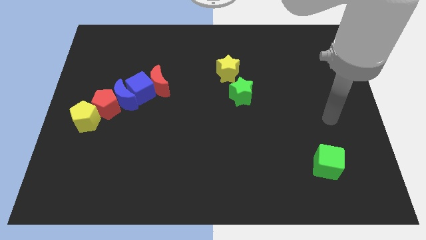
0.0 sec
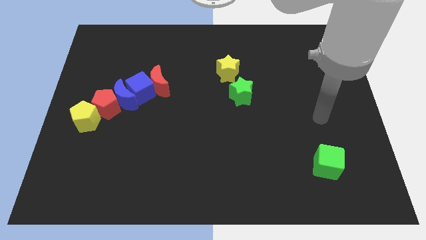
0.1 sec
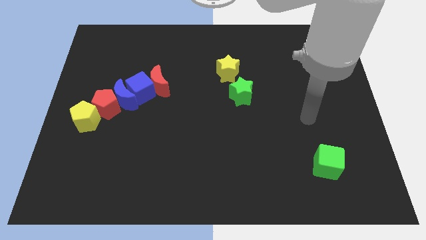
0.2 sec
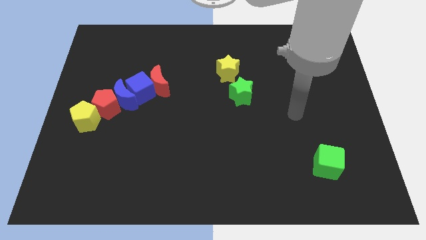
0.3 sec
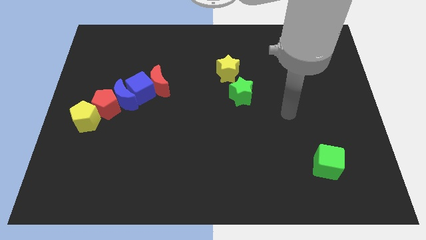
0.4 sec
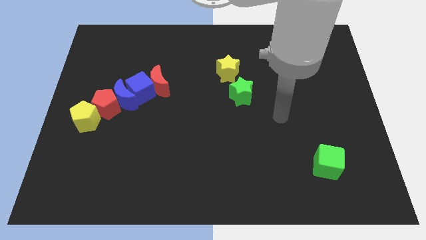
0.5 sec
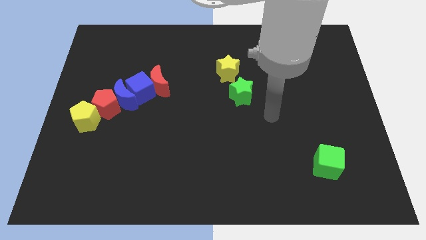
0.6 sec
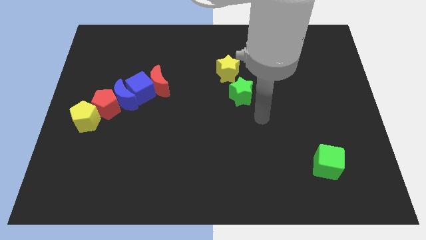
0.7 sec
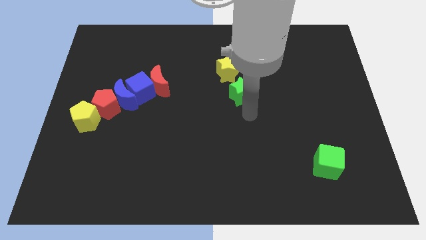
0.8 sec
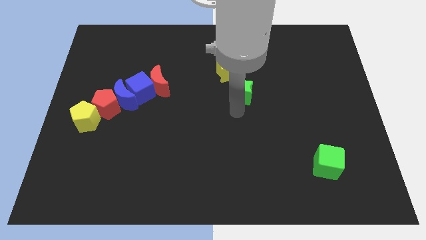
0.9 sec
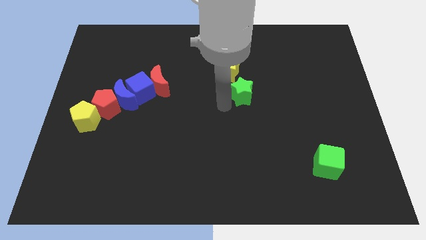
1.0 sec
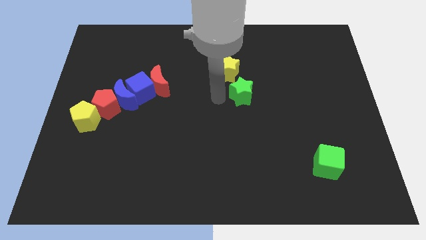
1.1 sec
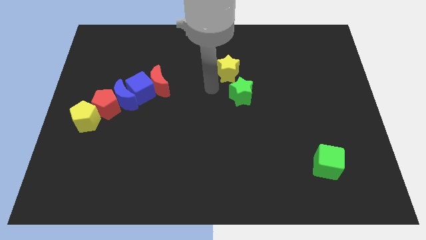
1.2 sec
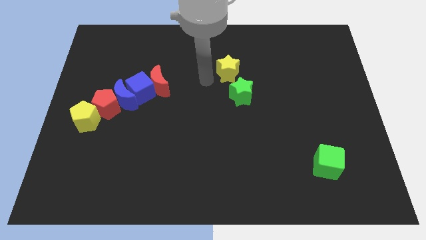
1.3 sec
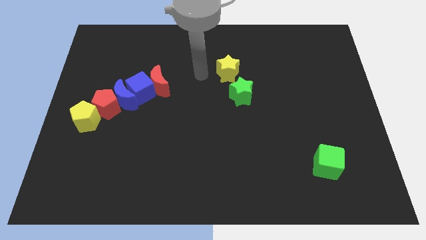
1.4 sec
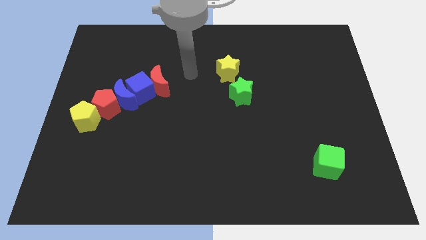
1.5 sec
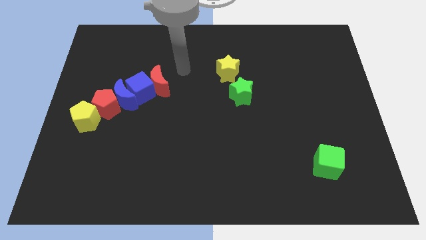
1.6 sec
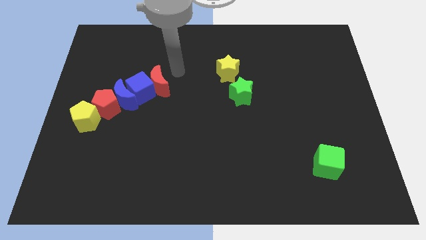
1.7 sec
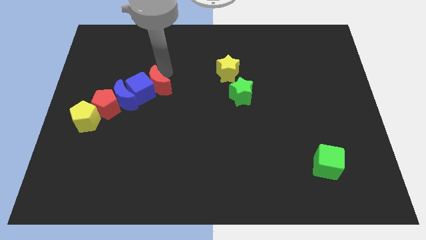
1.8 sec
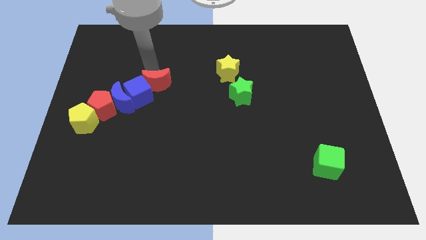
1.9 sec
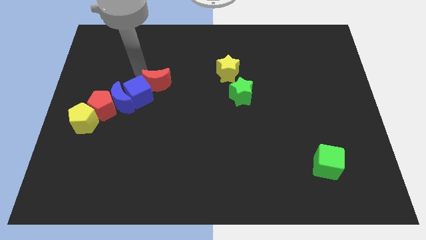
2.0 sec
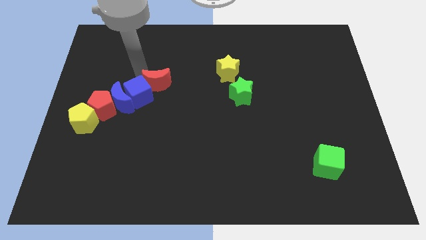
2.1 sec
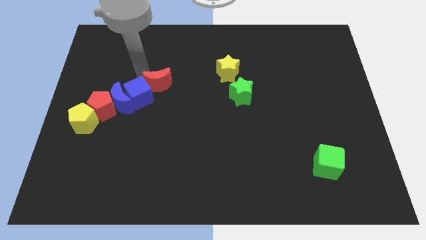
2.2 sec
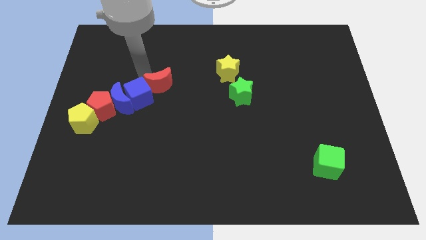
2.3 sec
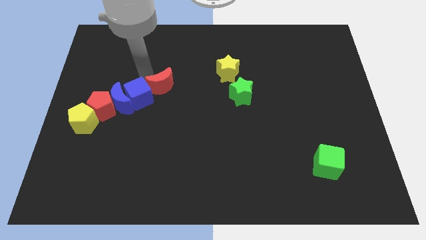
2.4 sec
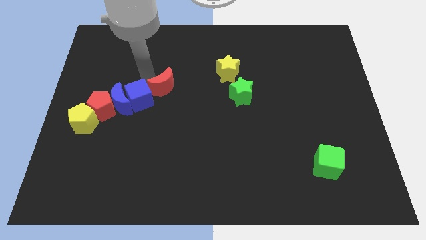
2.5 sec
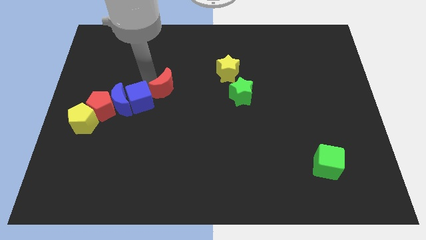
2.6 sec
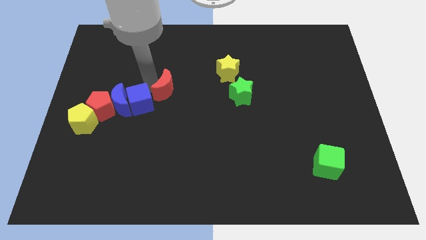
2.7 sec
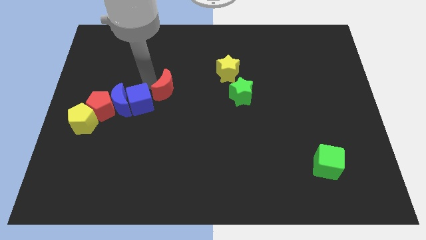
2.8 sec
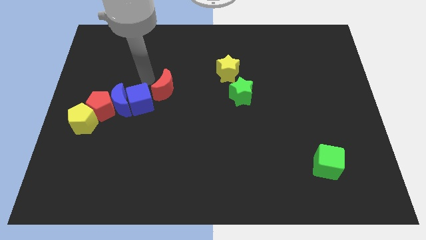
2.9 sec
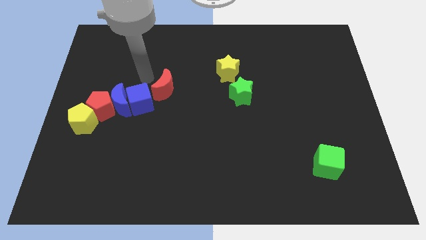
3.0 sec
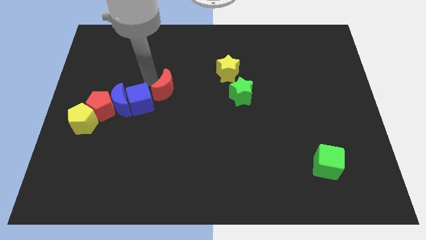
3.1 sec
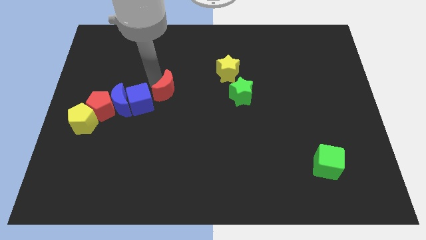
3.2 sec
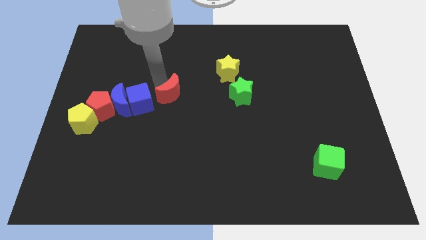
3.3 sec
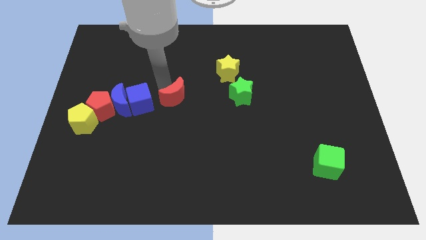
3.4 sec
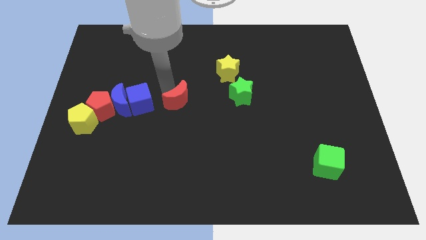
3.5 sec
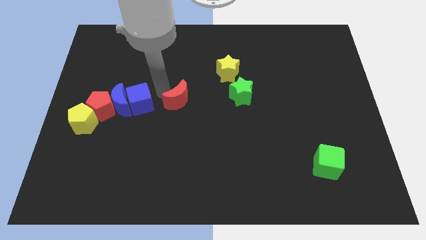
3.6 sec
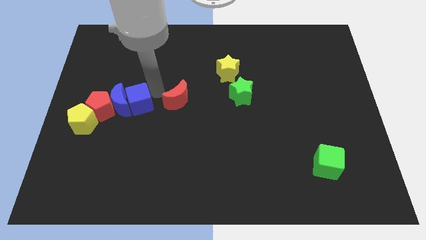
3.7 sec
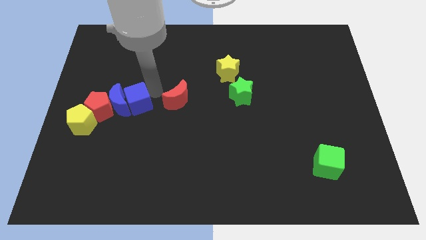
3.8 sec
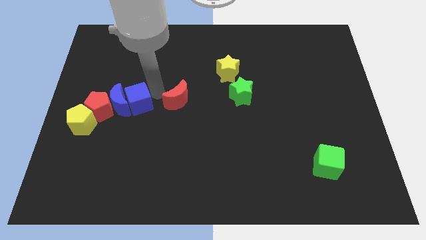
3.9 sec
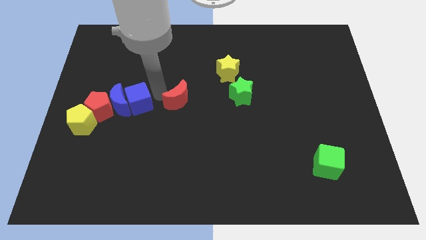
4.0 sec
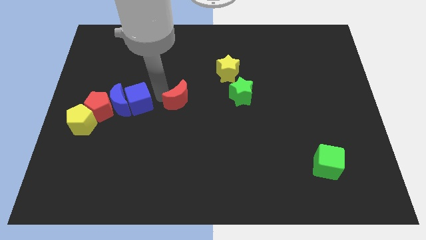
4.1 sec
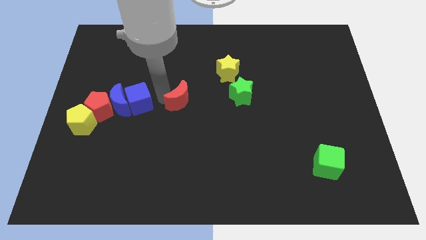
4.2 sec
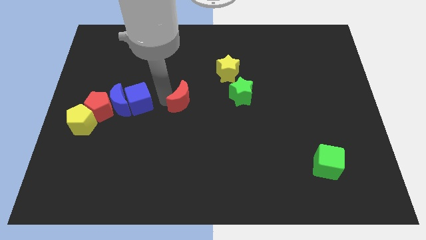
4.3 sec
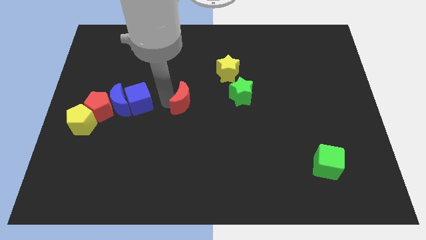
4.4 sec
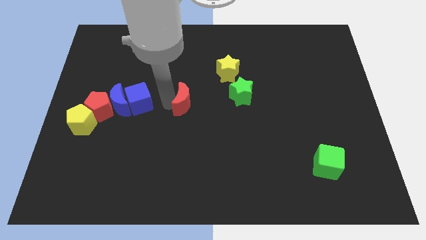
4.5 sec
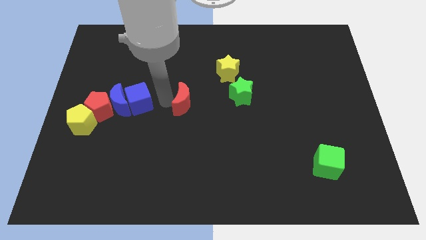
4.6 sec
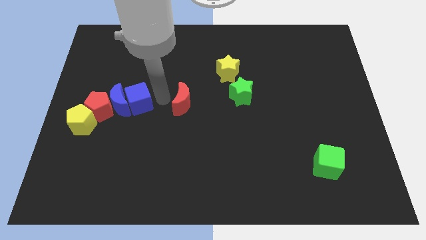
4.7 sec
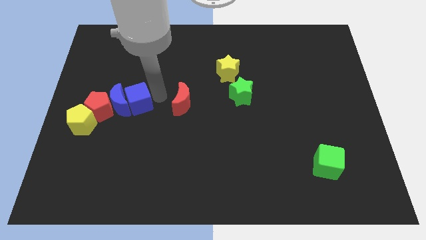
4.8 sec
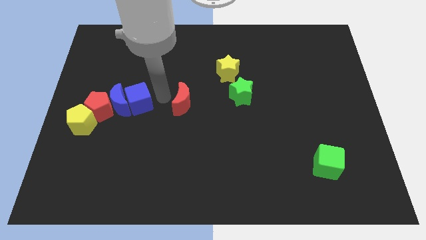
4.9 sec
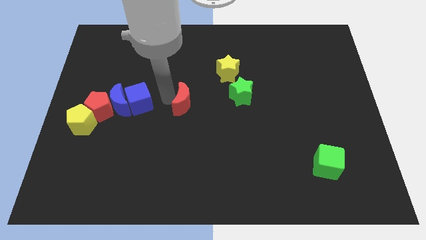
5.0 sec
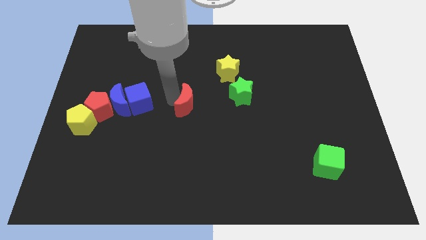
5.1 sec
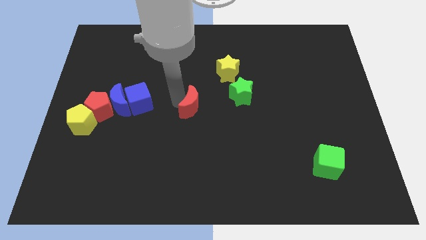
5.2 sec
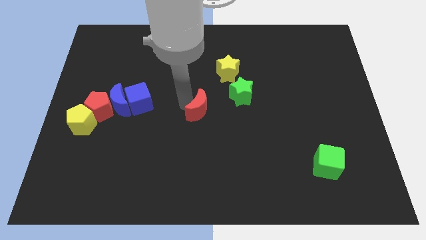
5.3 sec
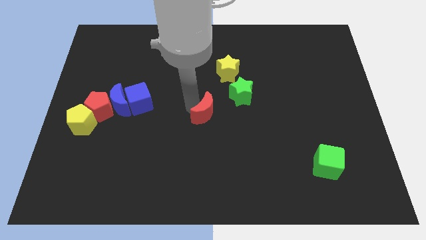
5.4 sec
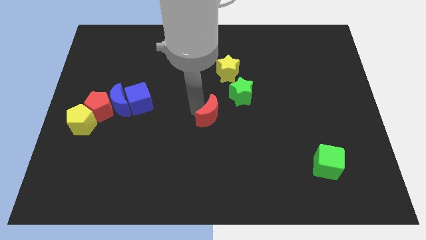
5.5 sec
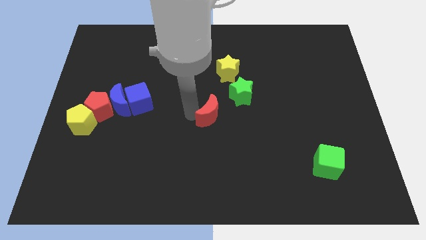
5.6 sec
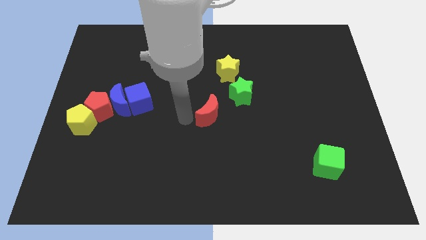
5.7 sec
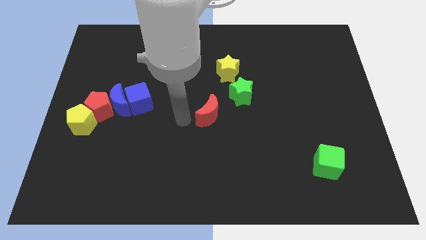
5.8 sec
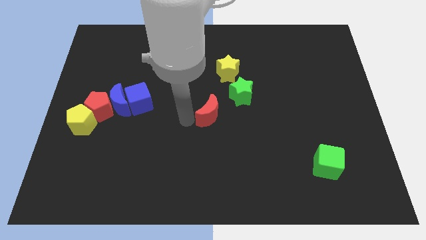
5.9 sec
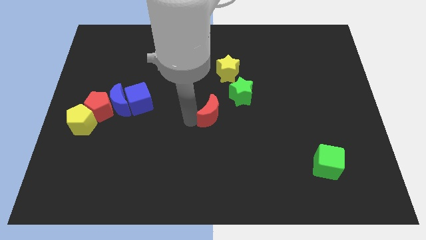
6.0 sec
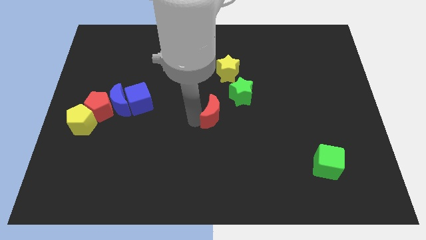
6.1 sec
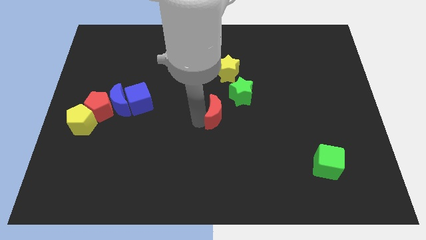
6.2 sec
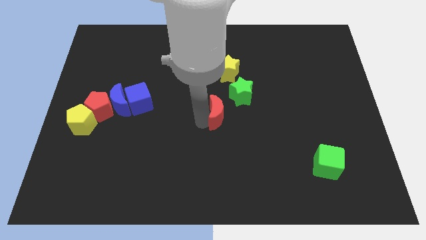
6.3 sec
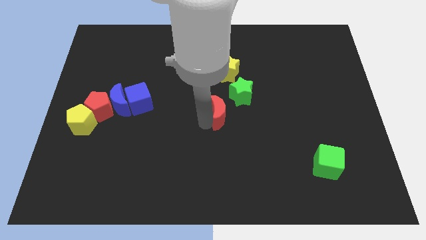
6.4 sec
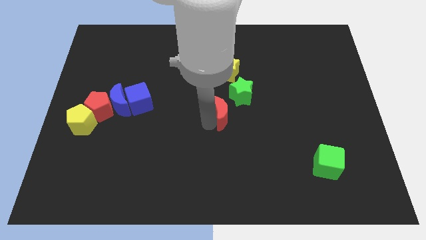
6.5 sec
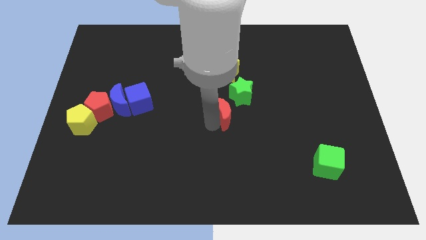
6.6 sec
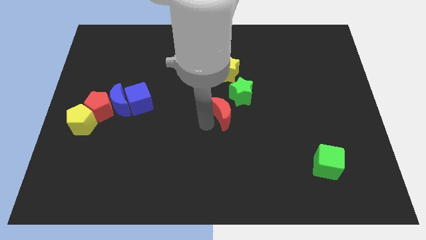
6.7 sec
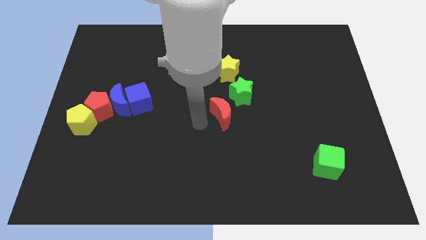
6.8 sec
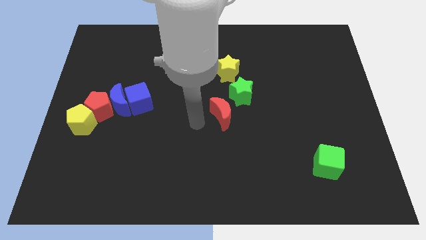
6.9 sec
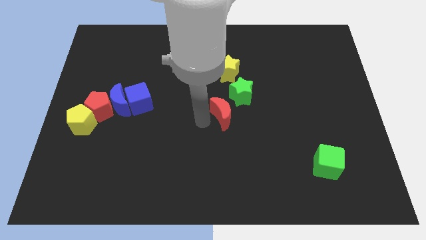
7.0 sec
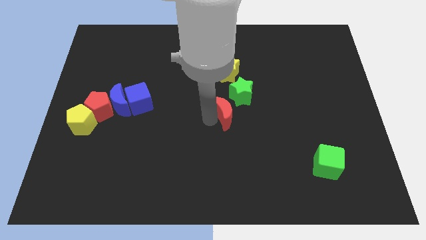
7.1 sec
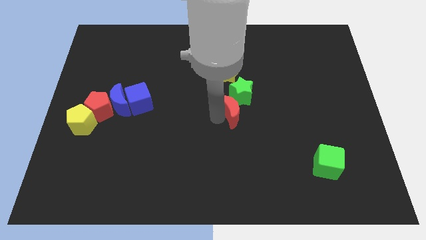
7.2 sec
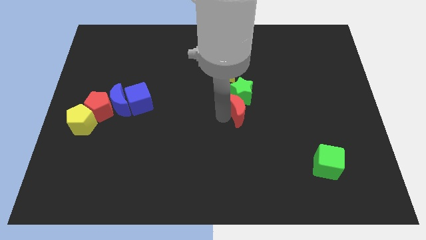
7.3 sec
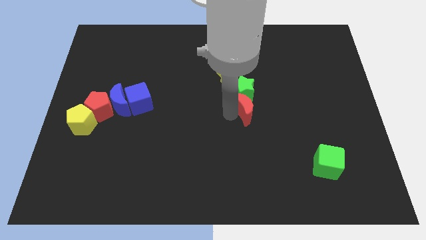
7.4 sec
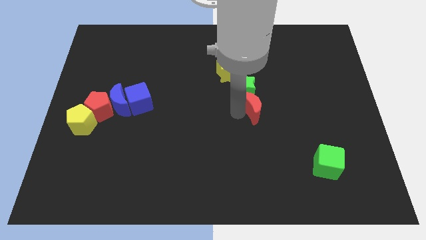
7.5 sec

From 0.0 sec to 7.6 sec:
move the red moon to the right

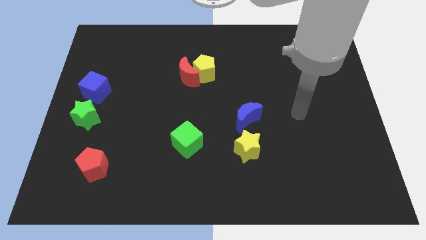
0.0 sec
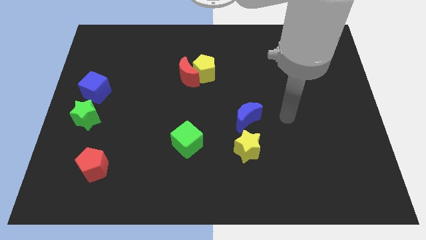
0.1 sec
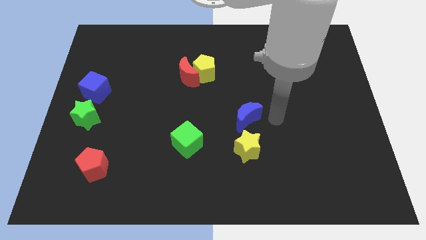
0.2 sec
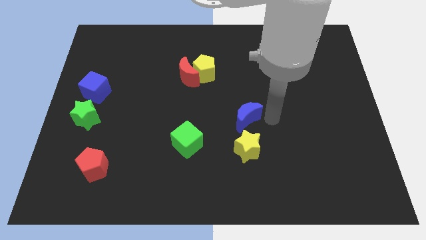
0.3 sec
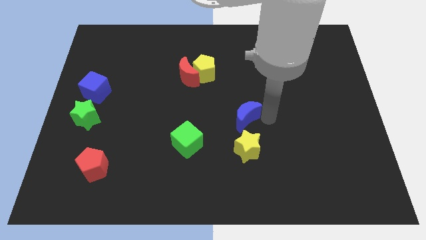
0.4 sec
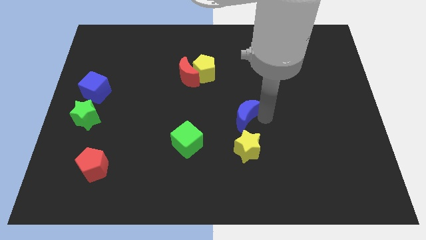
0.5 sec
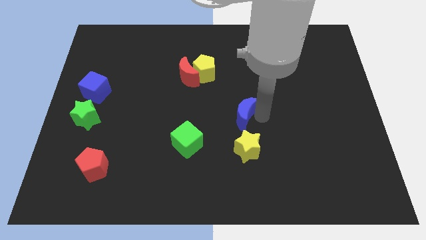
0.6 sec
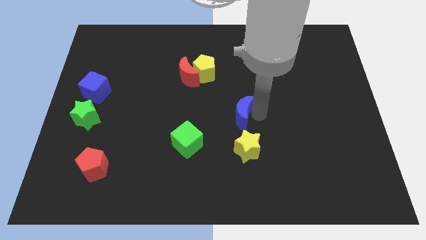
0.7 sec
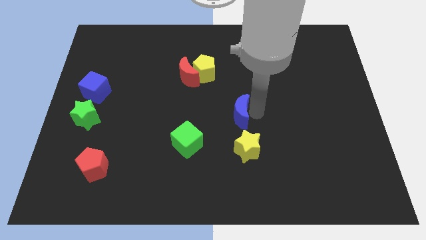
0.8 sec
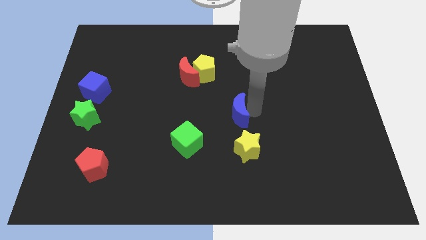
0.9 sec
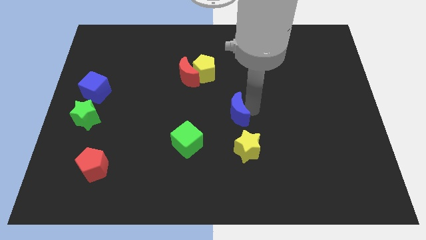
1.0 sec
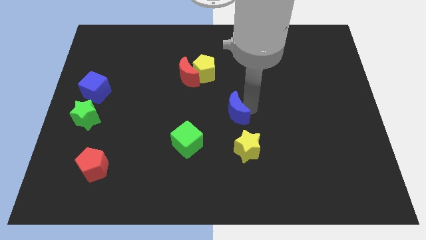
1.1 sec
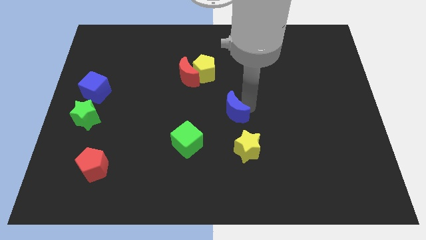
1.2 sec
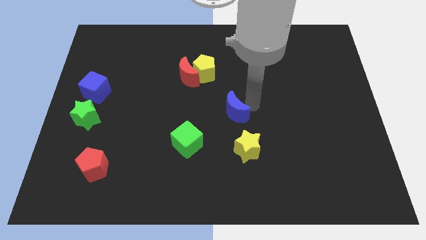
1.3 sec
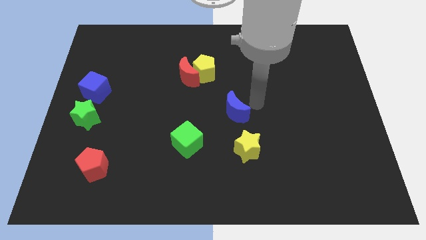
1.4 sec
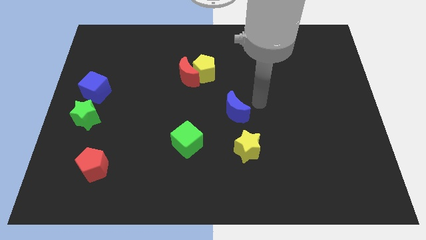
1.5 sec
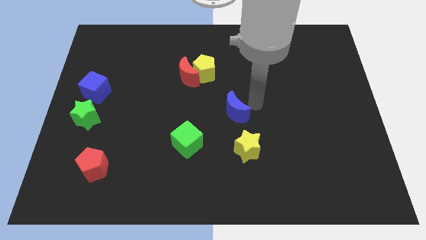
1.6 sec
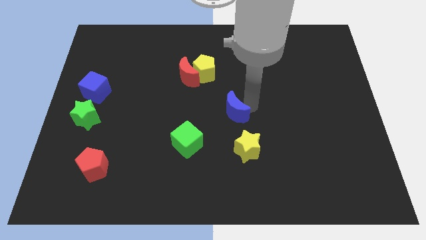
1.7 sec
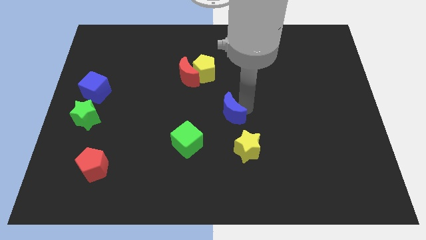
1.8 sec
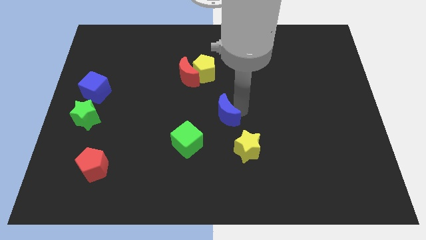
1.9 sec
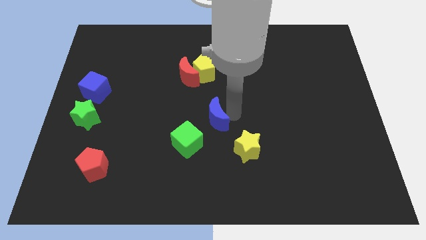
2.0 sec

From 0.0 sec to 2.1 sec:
slightly push the blue moon left
